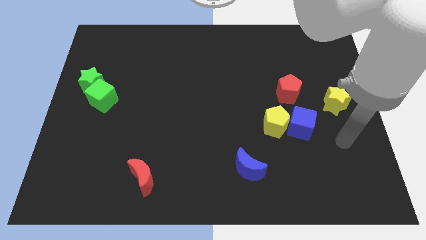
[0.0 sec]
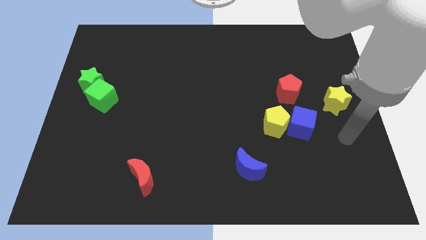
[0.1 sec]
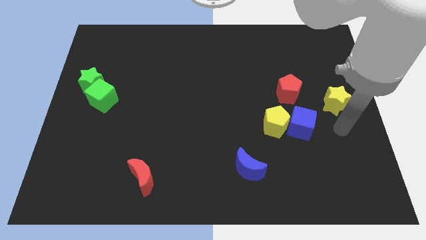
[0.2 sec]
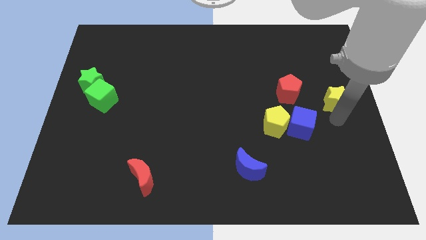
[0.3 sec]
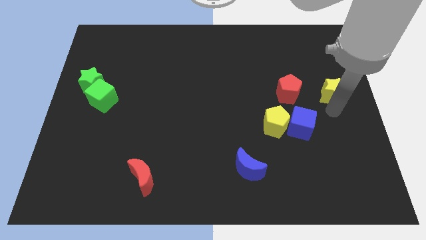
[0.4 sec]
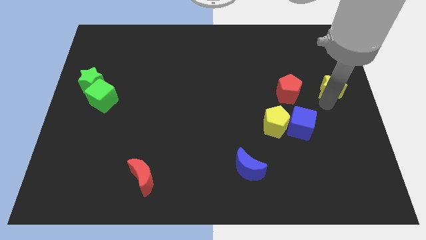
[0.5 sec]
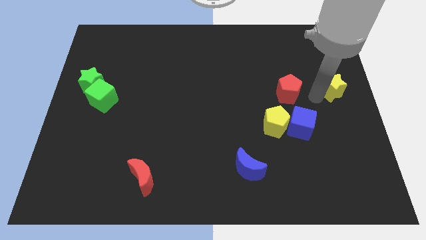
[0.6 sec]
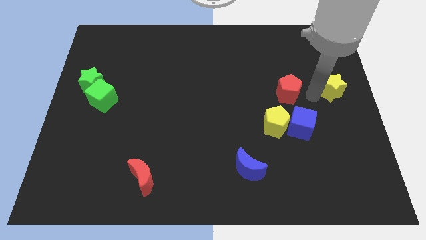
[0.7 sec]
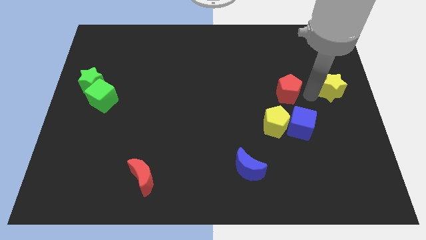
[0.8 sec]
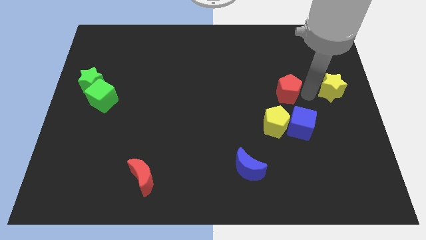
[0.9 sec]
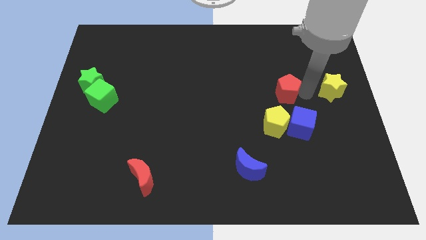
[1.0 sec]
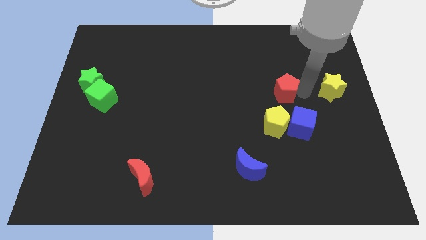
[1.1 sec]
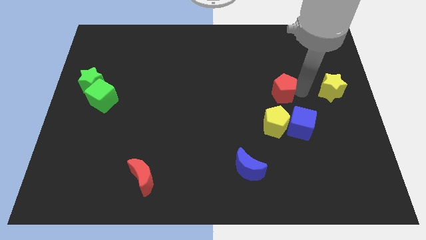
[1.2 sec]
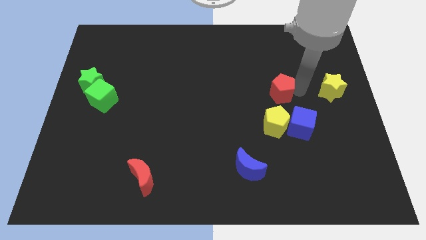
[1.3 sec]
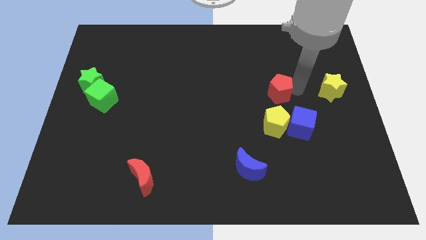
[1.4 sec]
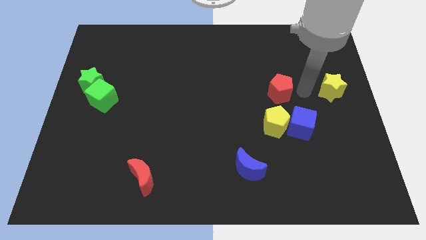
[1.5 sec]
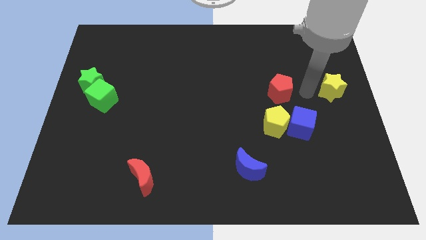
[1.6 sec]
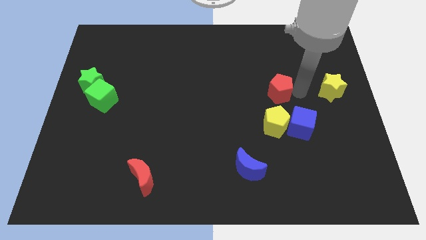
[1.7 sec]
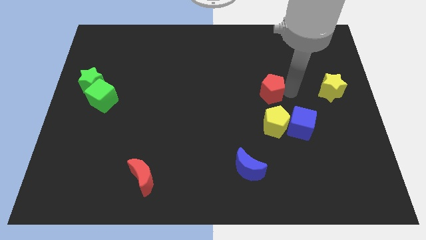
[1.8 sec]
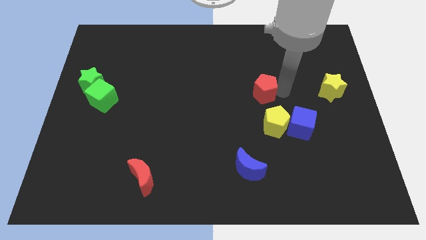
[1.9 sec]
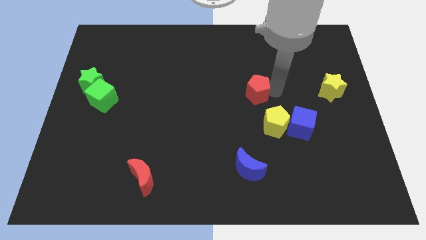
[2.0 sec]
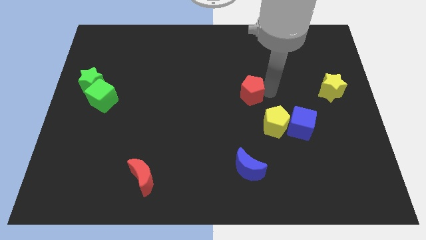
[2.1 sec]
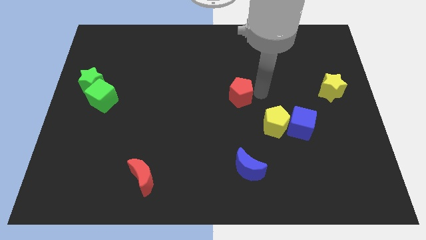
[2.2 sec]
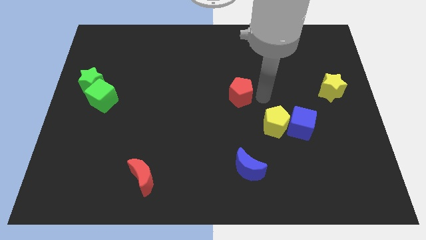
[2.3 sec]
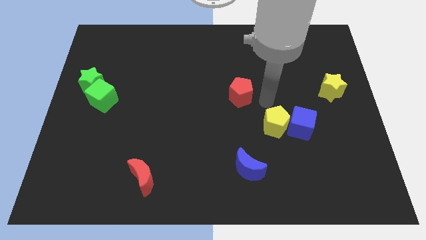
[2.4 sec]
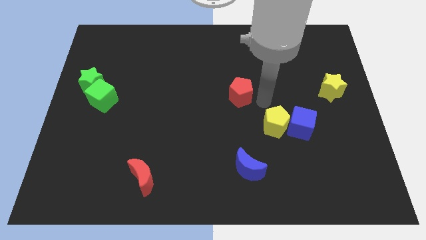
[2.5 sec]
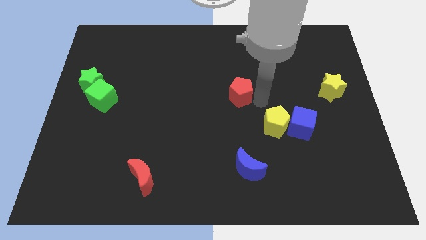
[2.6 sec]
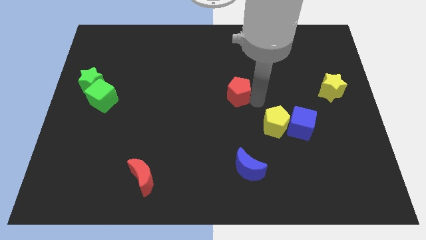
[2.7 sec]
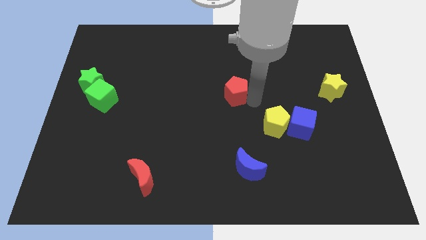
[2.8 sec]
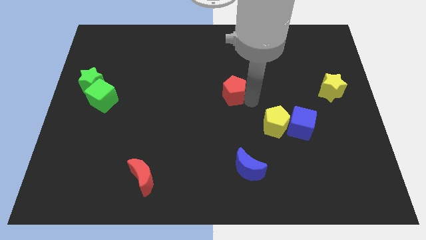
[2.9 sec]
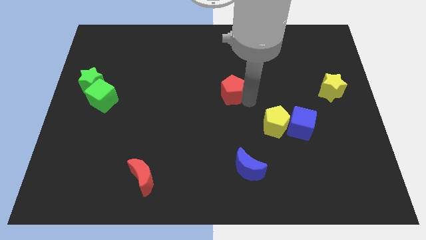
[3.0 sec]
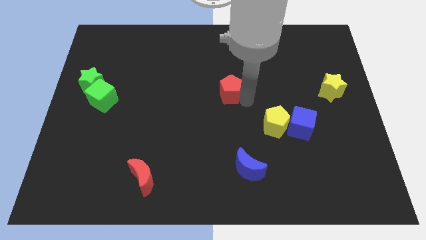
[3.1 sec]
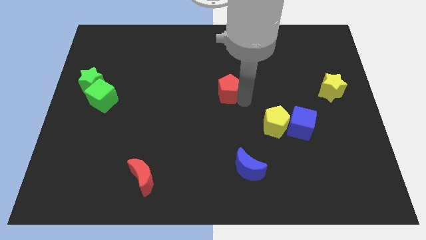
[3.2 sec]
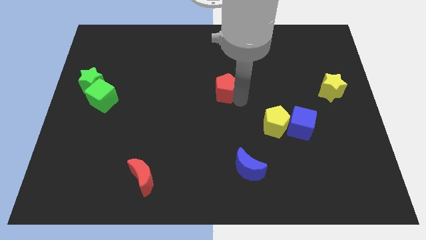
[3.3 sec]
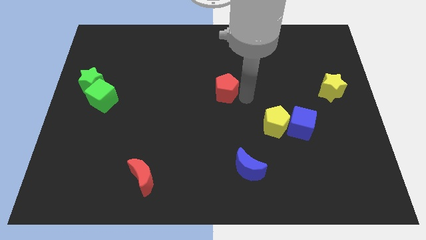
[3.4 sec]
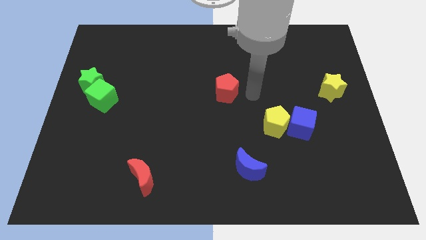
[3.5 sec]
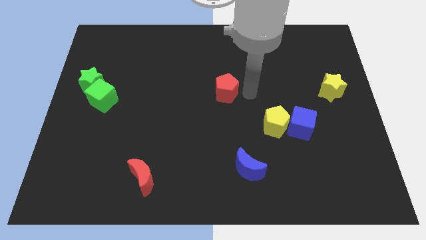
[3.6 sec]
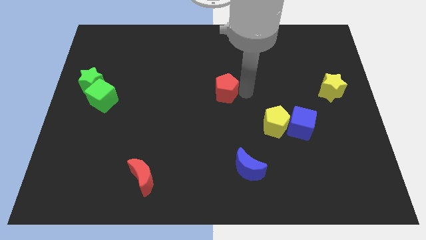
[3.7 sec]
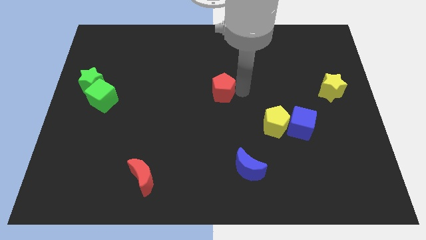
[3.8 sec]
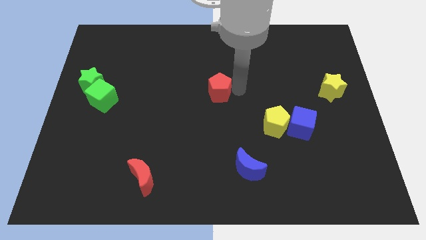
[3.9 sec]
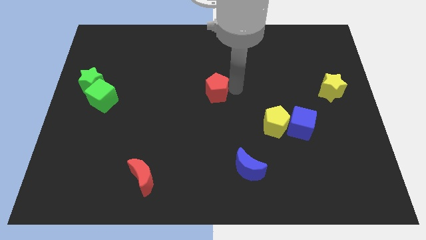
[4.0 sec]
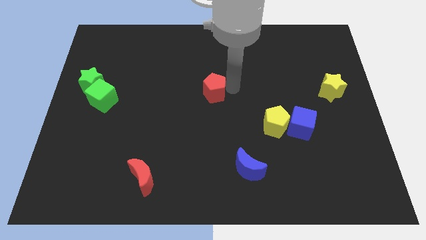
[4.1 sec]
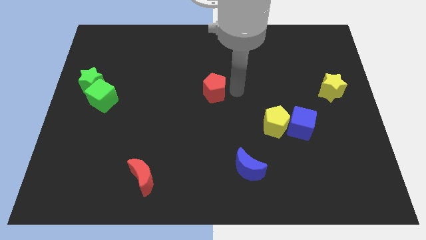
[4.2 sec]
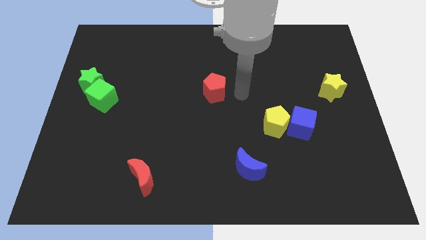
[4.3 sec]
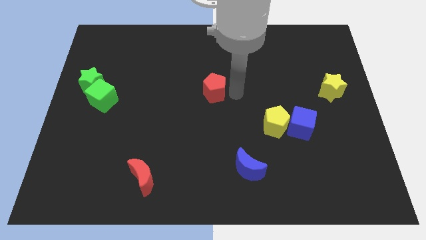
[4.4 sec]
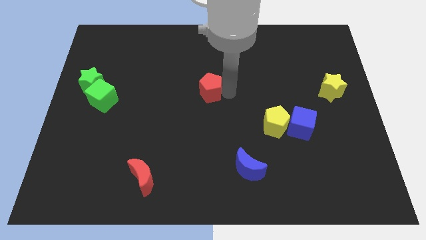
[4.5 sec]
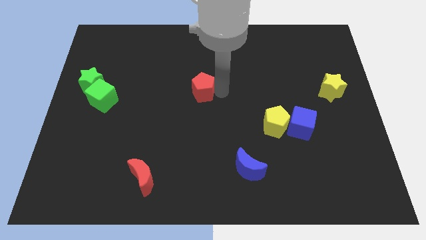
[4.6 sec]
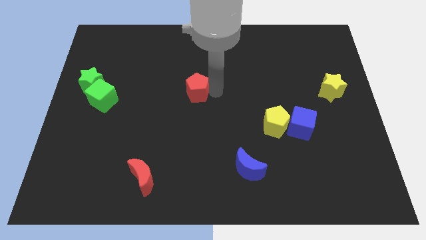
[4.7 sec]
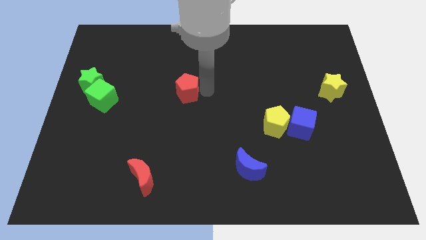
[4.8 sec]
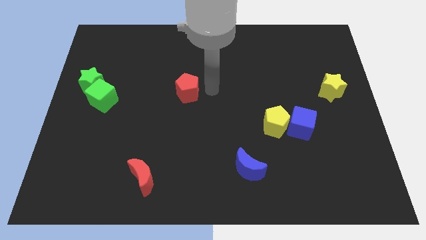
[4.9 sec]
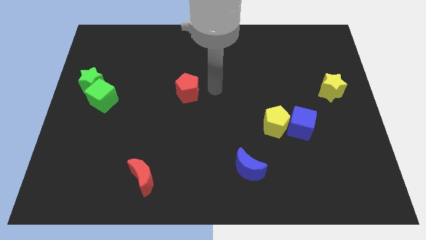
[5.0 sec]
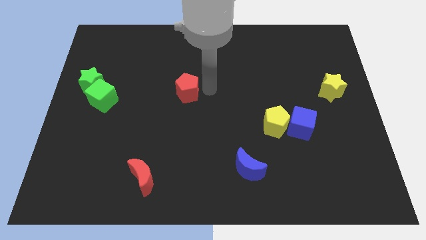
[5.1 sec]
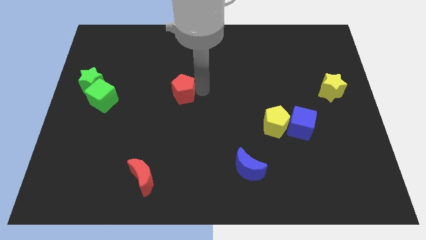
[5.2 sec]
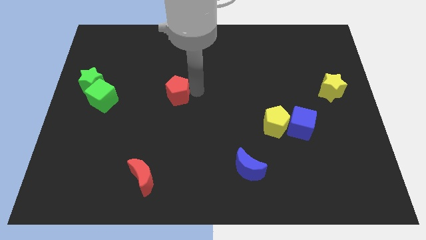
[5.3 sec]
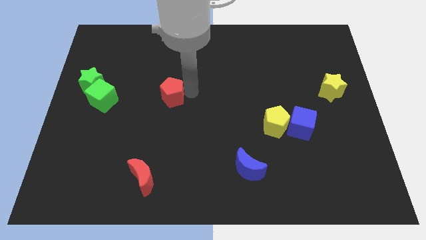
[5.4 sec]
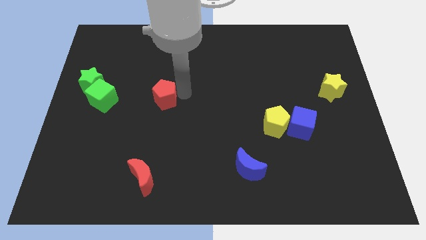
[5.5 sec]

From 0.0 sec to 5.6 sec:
put the red pentagon right of the green cube

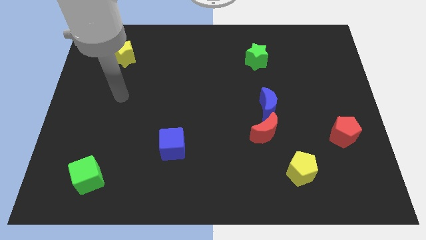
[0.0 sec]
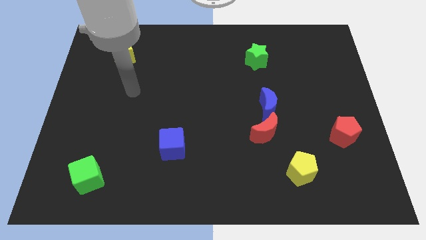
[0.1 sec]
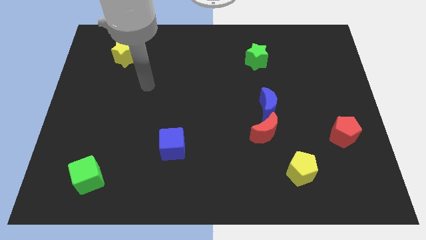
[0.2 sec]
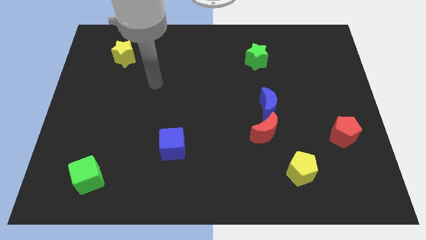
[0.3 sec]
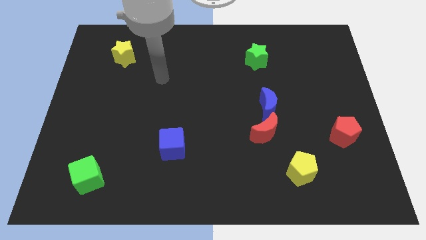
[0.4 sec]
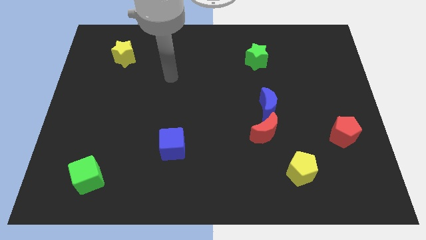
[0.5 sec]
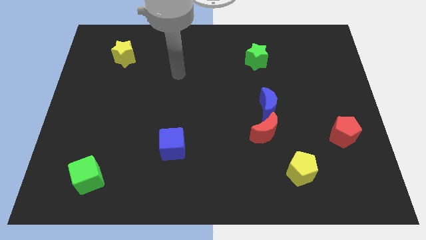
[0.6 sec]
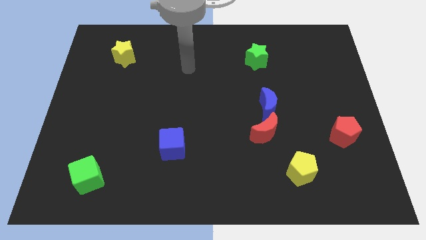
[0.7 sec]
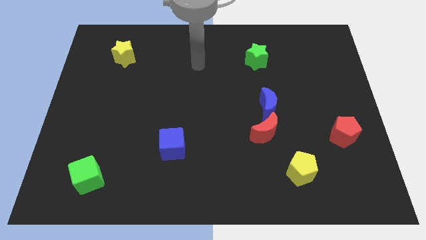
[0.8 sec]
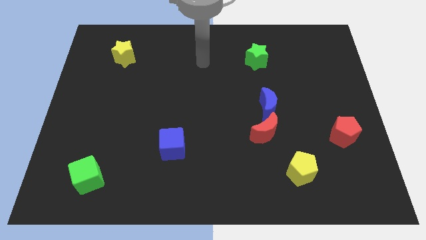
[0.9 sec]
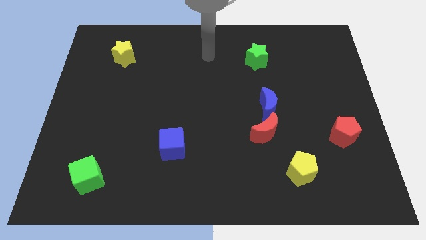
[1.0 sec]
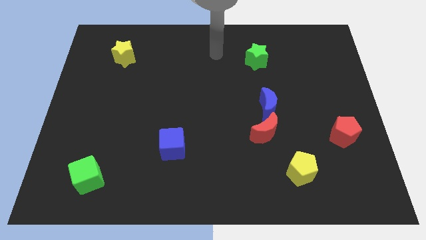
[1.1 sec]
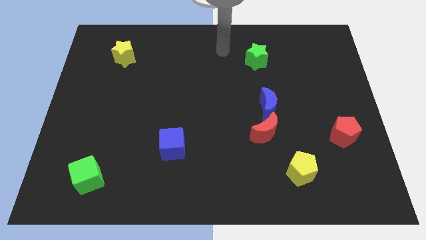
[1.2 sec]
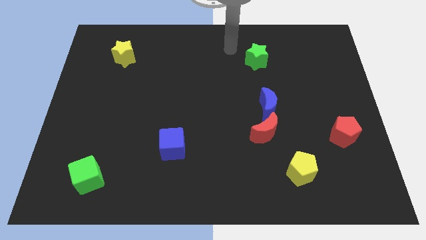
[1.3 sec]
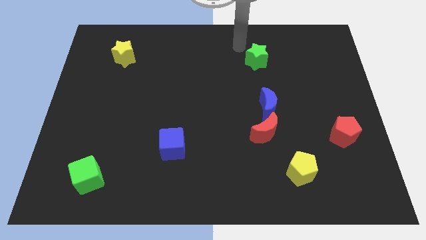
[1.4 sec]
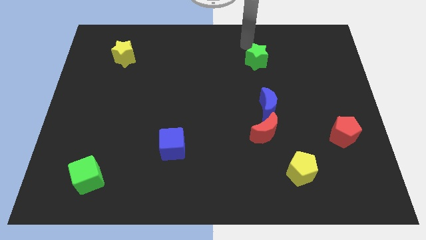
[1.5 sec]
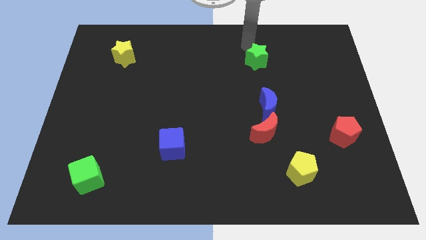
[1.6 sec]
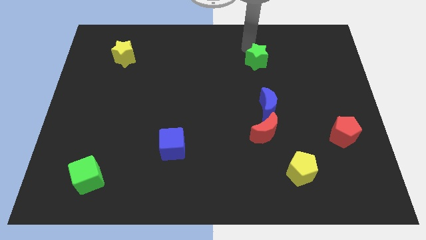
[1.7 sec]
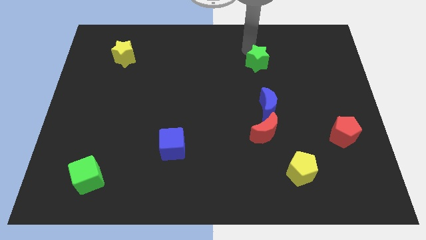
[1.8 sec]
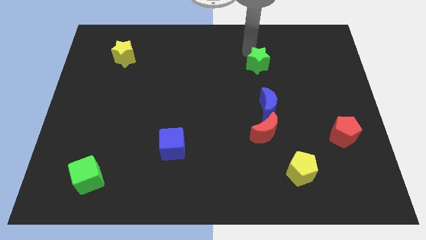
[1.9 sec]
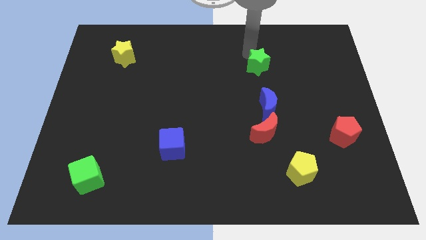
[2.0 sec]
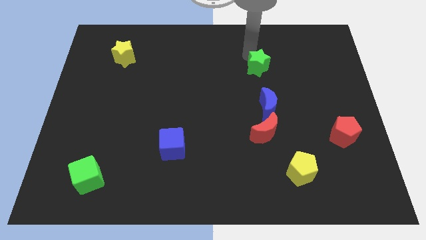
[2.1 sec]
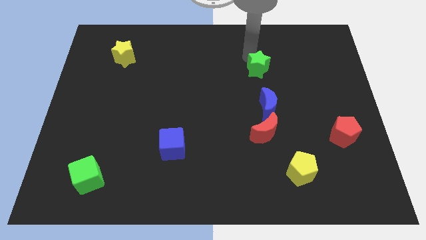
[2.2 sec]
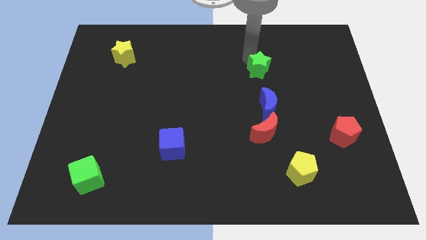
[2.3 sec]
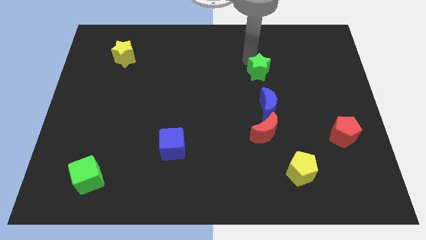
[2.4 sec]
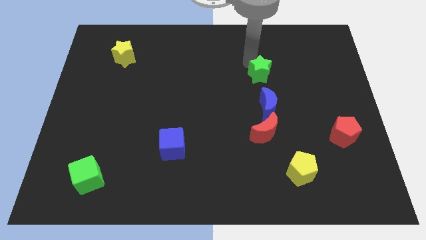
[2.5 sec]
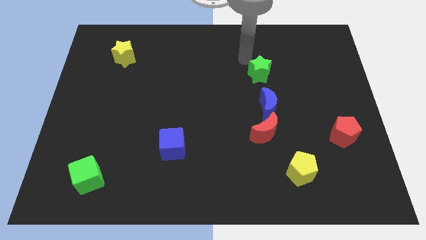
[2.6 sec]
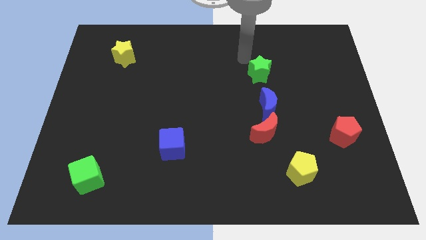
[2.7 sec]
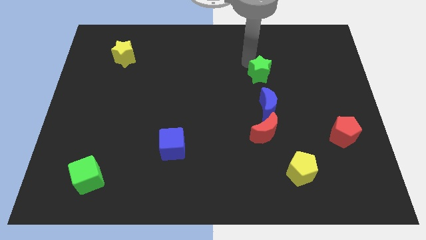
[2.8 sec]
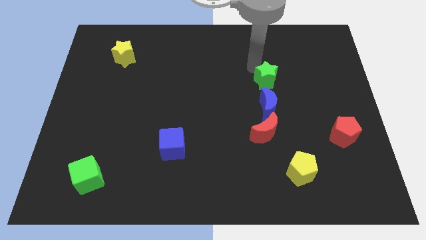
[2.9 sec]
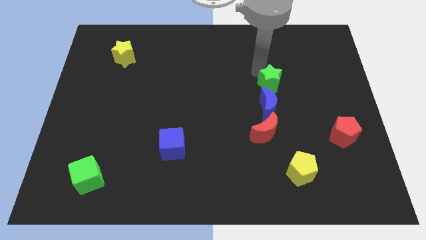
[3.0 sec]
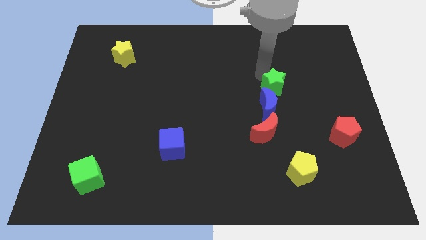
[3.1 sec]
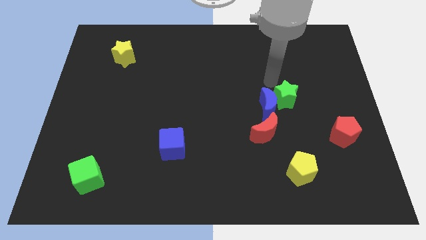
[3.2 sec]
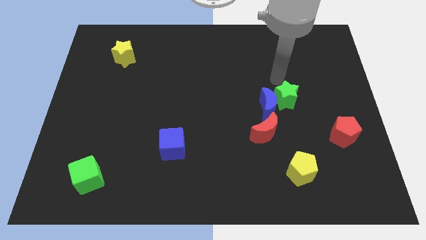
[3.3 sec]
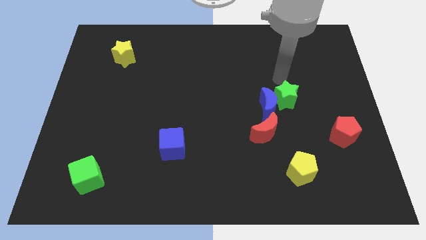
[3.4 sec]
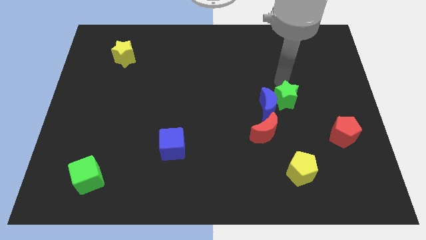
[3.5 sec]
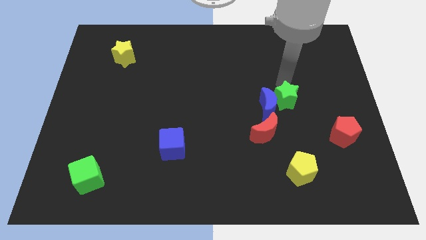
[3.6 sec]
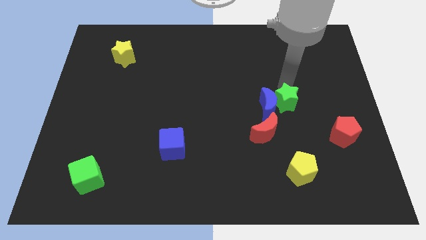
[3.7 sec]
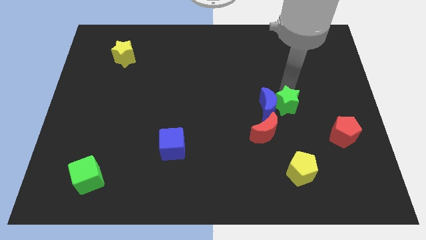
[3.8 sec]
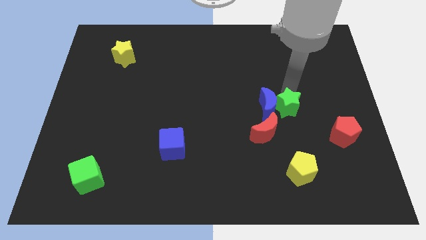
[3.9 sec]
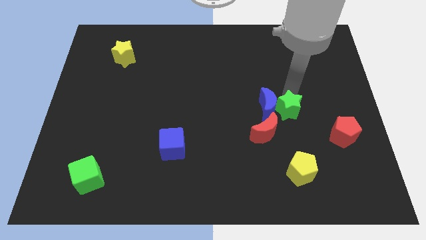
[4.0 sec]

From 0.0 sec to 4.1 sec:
move the green star to the top of the yellow pentagon
